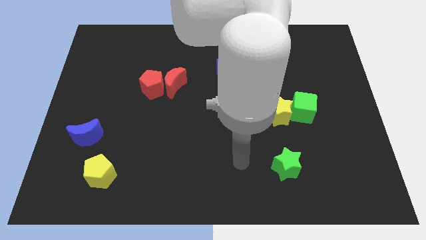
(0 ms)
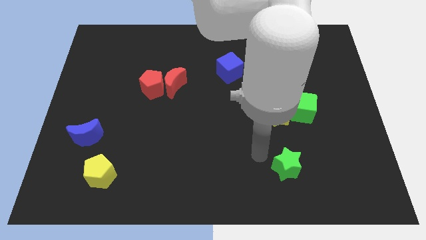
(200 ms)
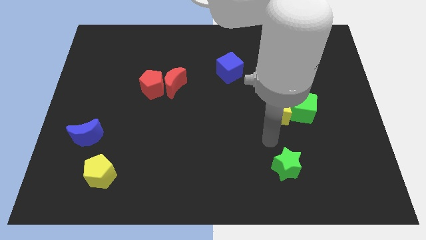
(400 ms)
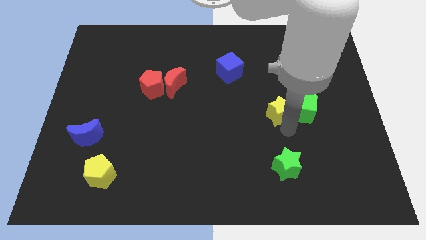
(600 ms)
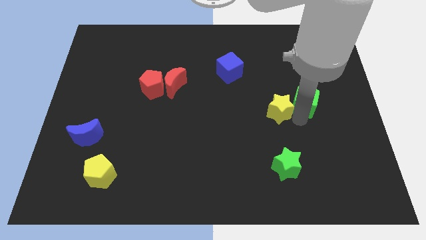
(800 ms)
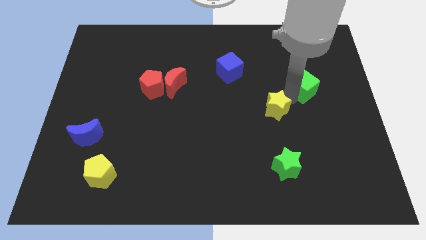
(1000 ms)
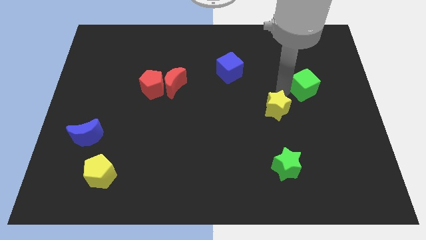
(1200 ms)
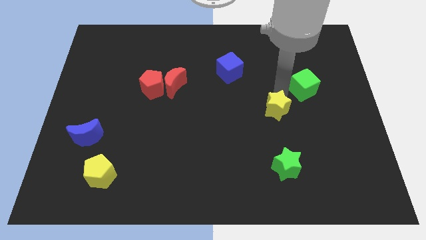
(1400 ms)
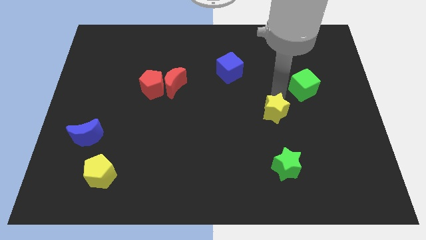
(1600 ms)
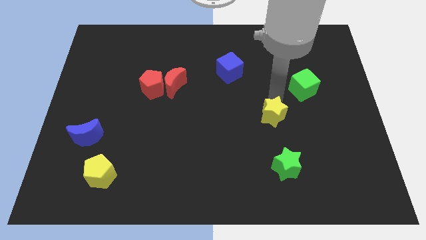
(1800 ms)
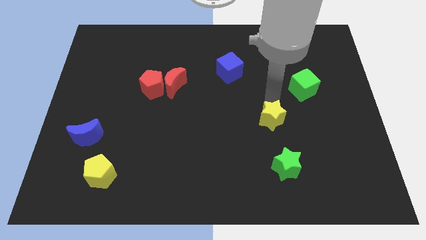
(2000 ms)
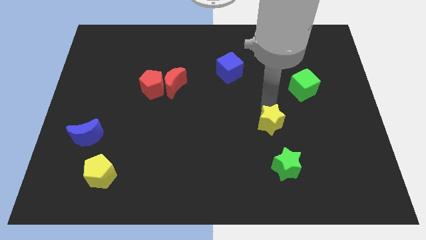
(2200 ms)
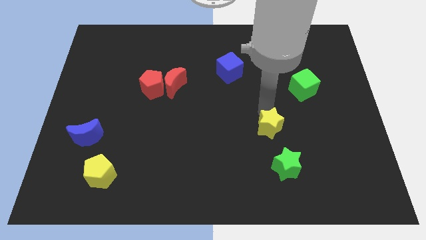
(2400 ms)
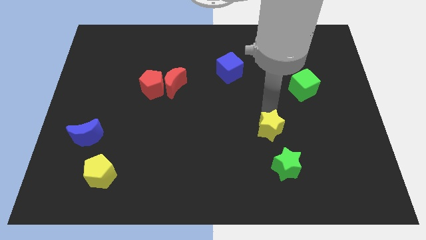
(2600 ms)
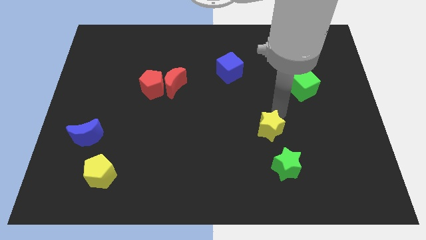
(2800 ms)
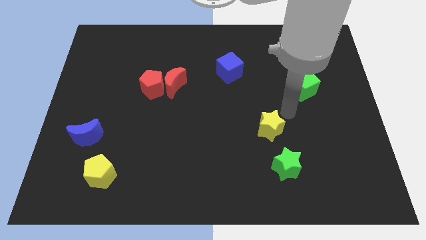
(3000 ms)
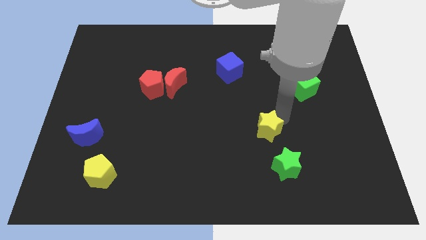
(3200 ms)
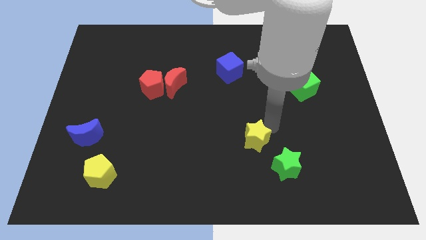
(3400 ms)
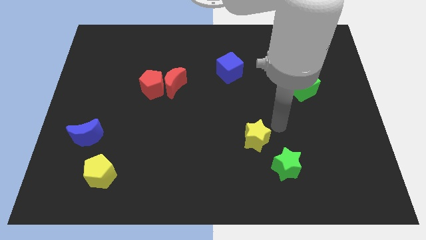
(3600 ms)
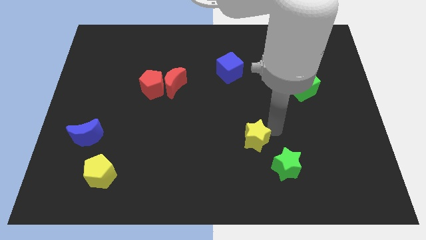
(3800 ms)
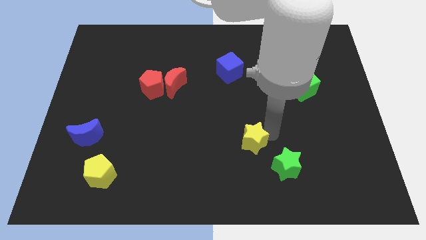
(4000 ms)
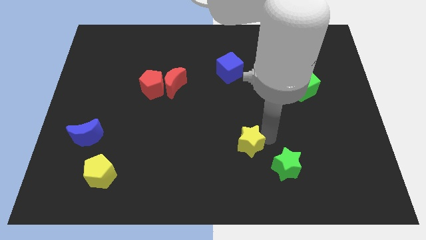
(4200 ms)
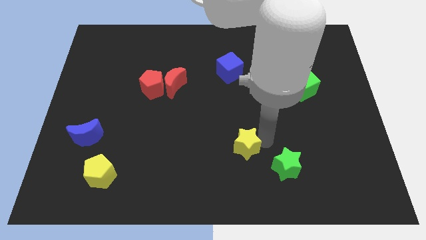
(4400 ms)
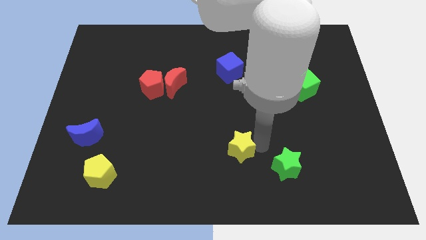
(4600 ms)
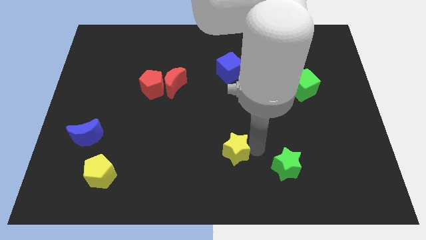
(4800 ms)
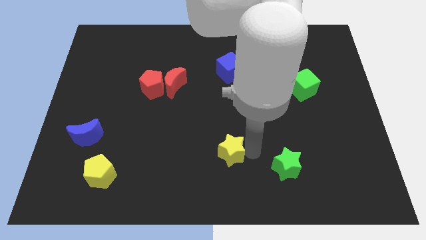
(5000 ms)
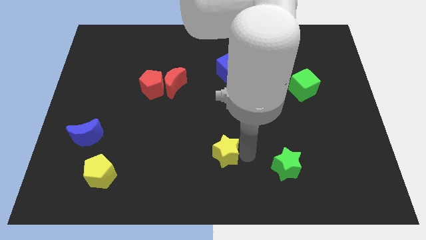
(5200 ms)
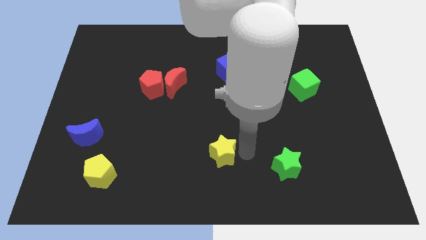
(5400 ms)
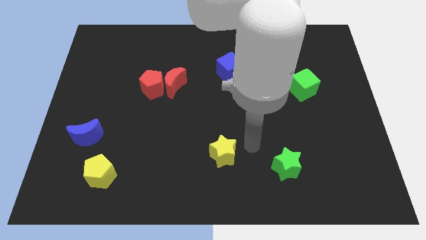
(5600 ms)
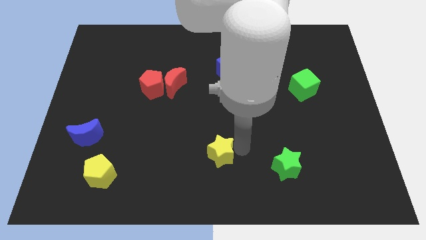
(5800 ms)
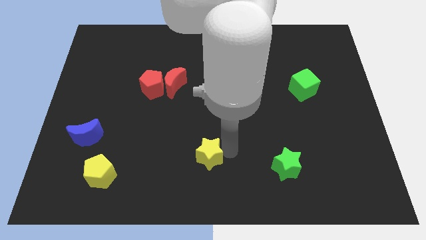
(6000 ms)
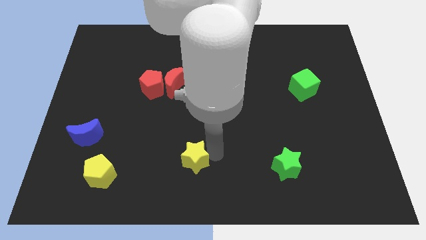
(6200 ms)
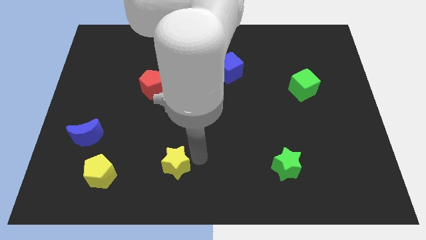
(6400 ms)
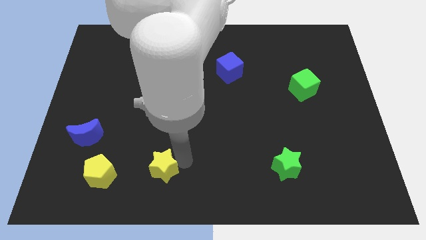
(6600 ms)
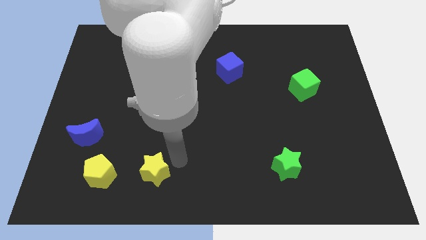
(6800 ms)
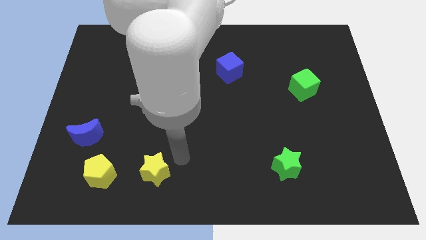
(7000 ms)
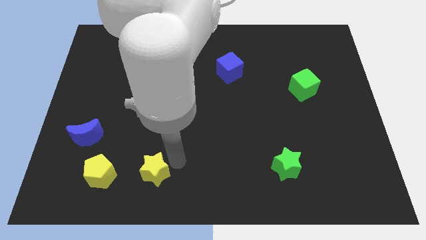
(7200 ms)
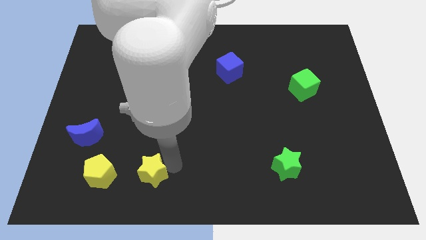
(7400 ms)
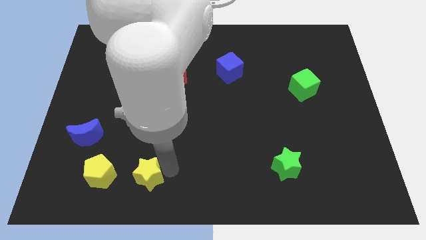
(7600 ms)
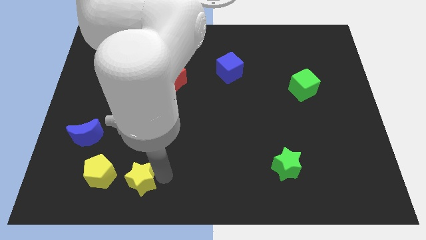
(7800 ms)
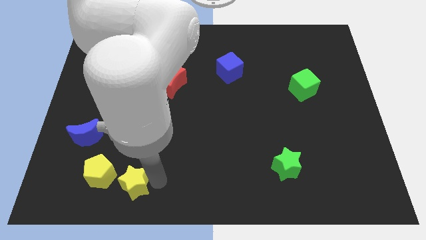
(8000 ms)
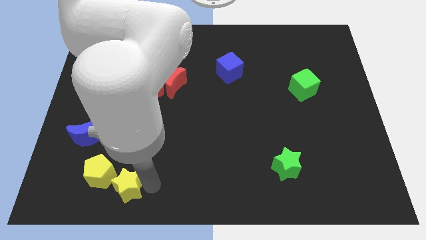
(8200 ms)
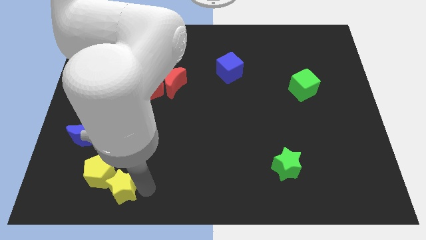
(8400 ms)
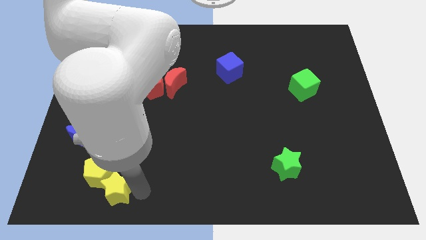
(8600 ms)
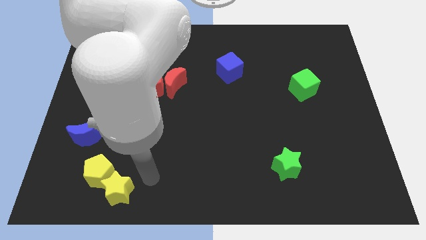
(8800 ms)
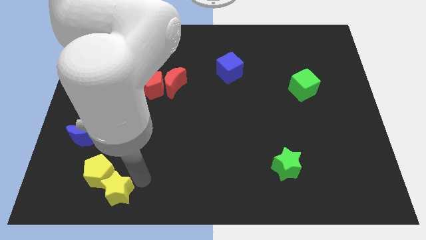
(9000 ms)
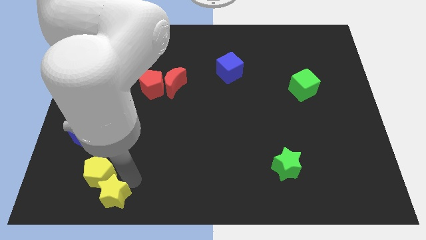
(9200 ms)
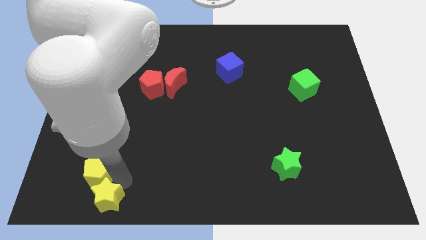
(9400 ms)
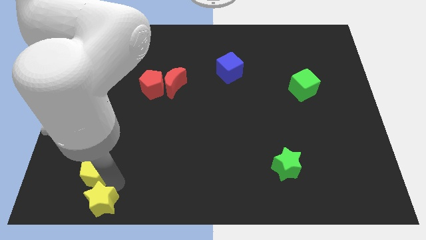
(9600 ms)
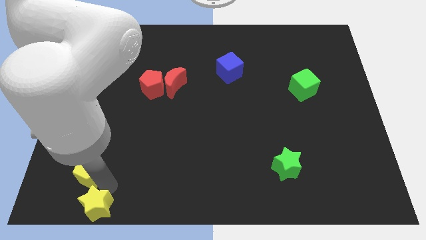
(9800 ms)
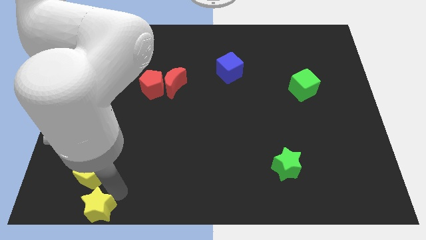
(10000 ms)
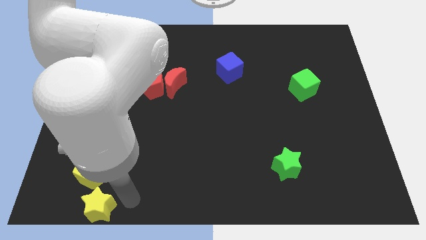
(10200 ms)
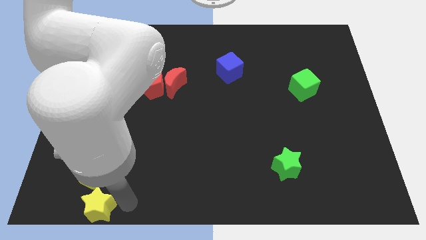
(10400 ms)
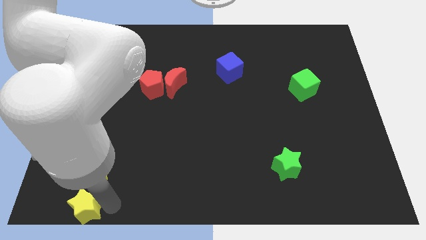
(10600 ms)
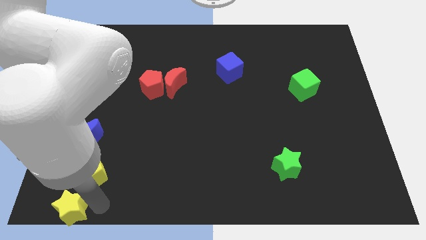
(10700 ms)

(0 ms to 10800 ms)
slide the yellow star to the lower left corner
